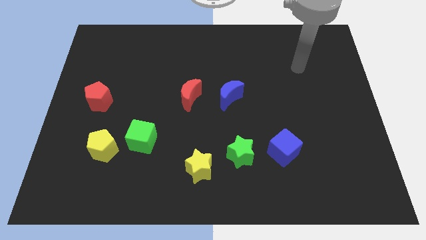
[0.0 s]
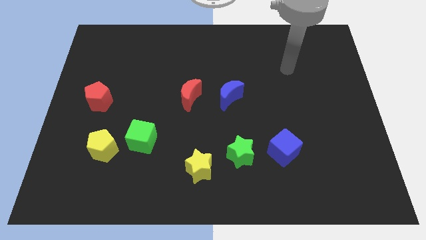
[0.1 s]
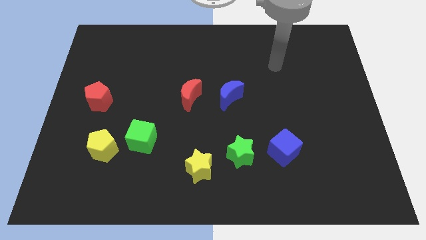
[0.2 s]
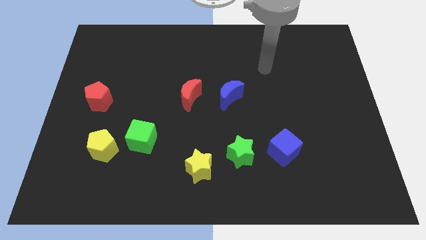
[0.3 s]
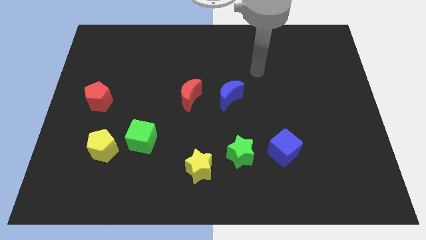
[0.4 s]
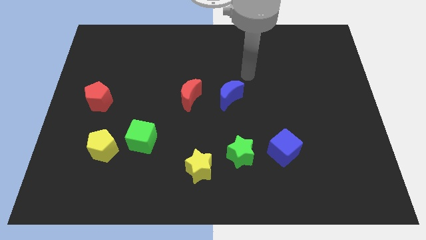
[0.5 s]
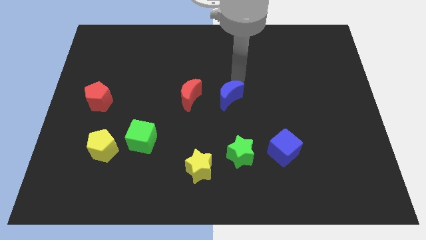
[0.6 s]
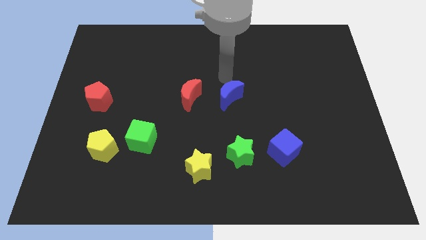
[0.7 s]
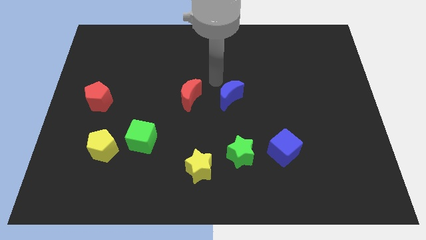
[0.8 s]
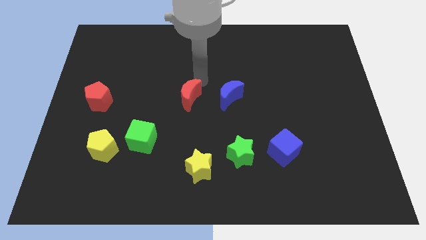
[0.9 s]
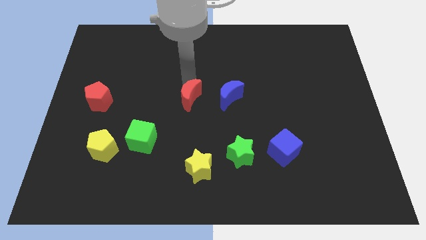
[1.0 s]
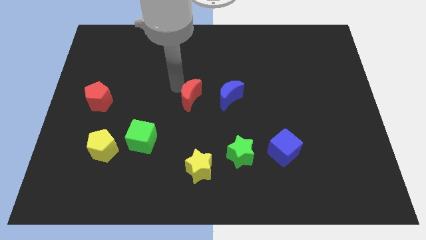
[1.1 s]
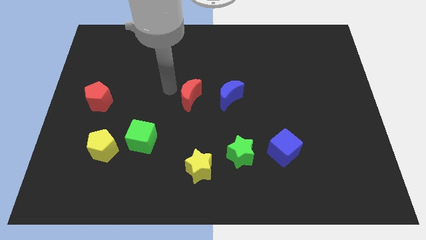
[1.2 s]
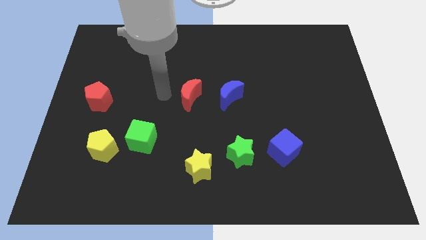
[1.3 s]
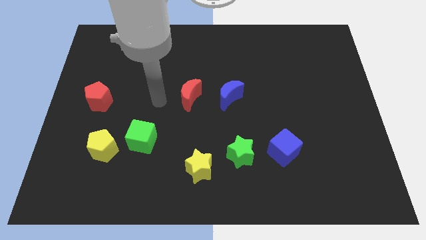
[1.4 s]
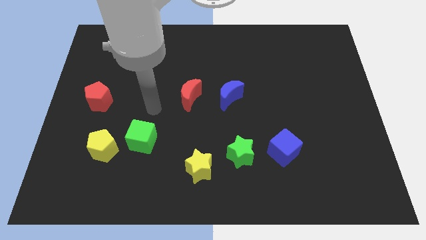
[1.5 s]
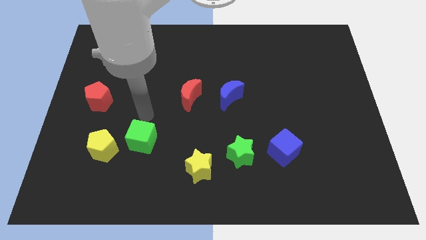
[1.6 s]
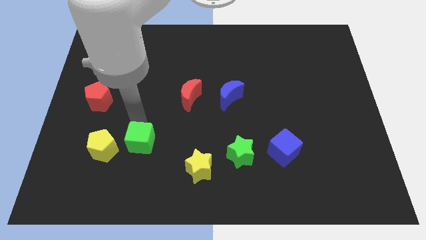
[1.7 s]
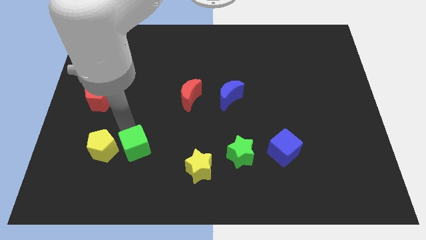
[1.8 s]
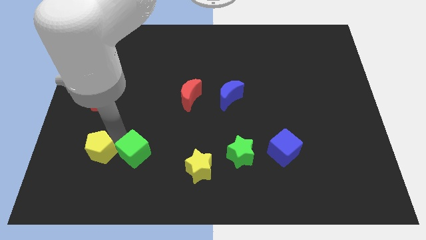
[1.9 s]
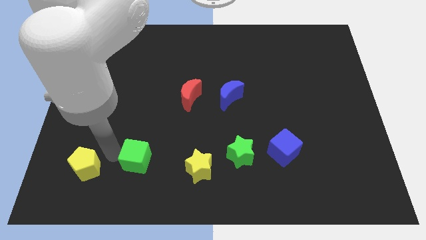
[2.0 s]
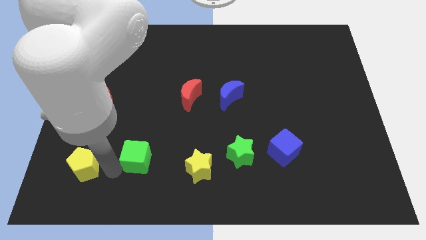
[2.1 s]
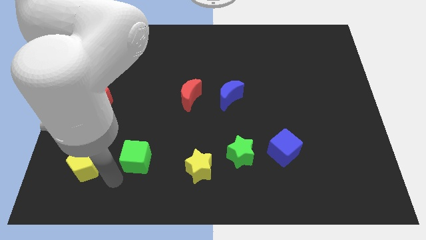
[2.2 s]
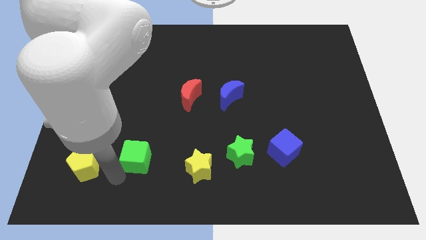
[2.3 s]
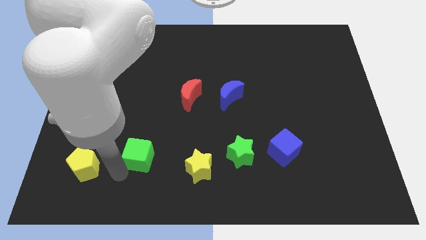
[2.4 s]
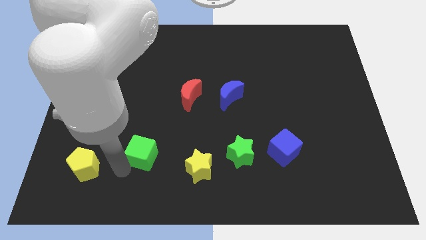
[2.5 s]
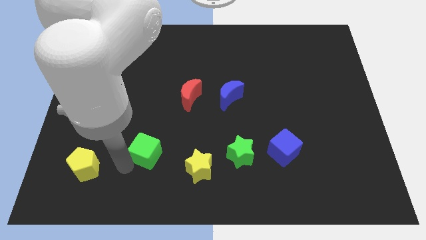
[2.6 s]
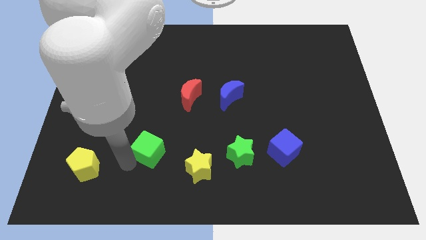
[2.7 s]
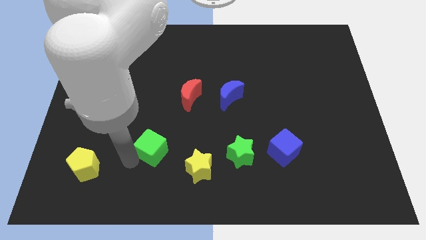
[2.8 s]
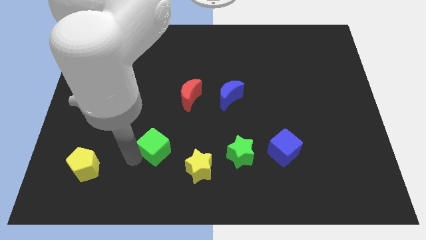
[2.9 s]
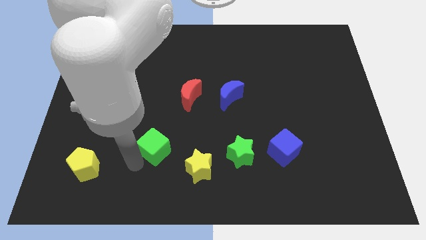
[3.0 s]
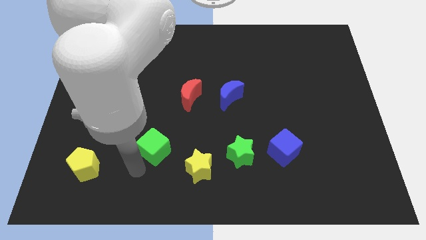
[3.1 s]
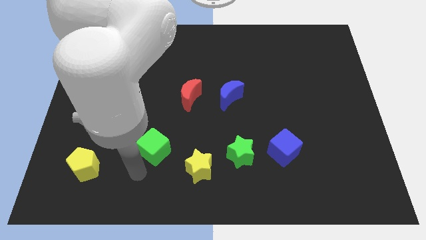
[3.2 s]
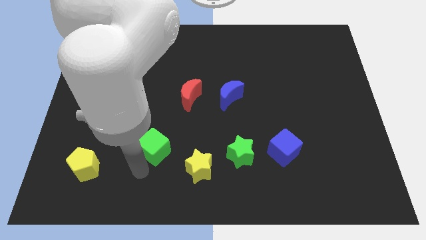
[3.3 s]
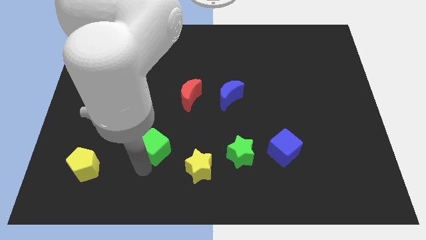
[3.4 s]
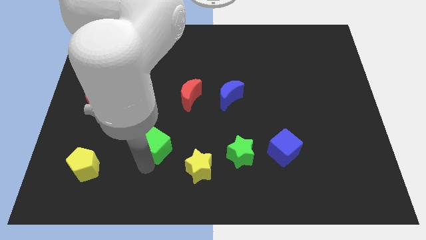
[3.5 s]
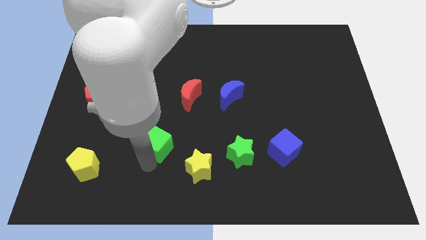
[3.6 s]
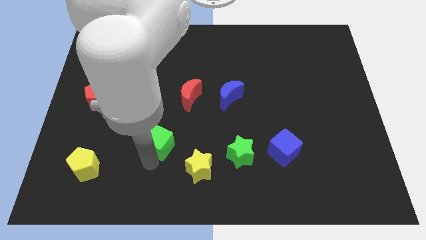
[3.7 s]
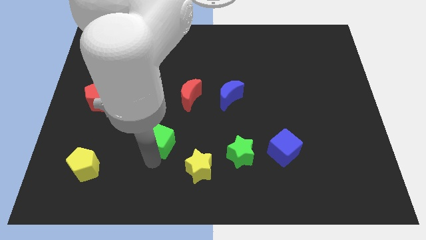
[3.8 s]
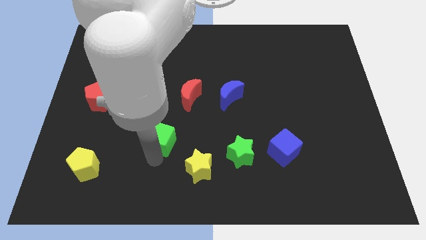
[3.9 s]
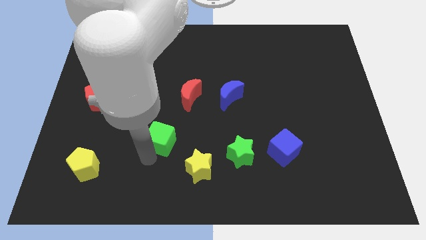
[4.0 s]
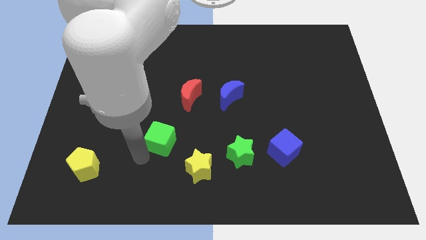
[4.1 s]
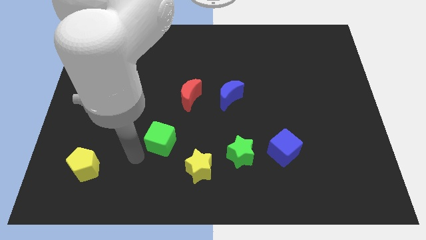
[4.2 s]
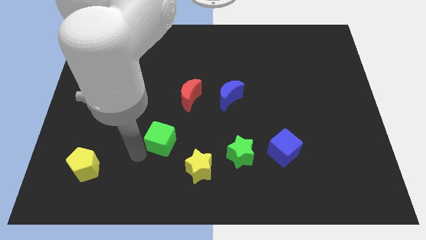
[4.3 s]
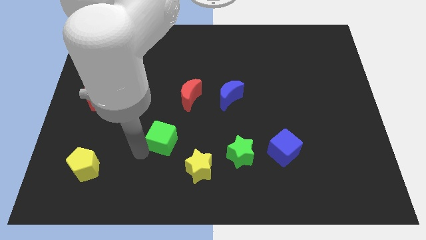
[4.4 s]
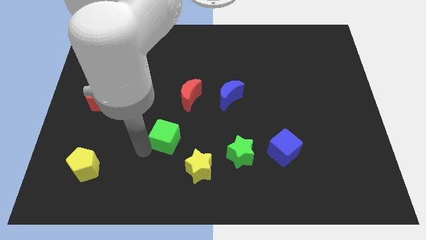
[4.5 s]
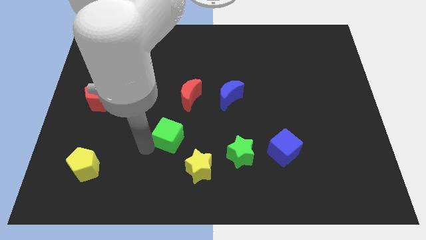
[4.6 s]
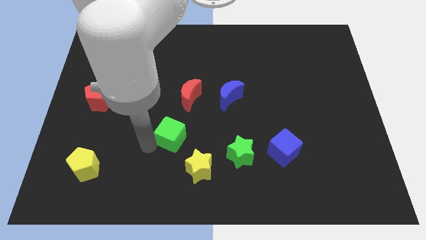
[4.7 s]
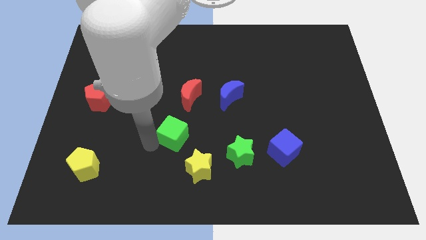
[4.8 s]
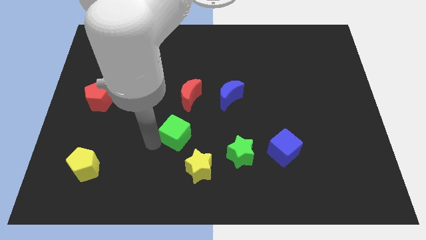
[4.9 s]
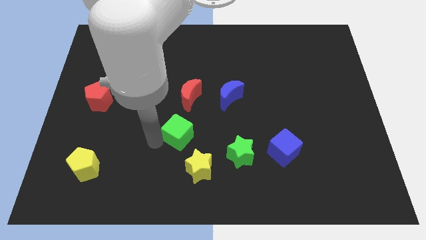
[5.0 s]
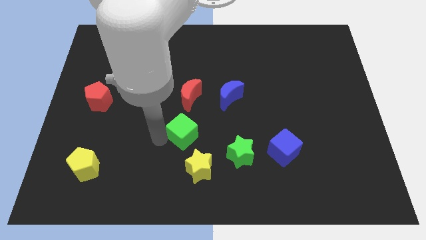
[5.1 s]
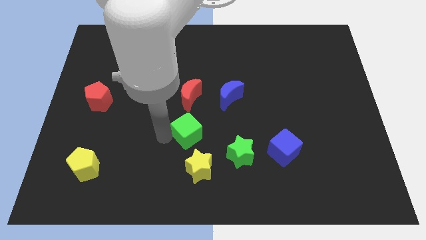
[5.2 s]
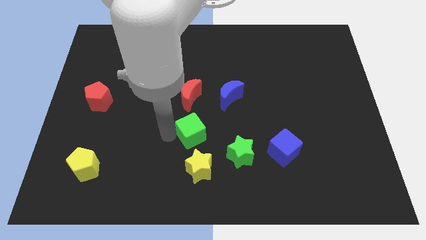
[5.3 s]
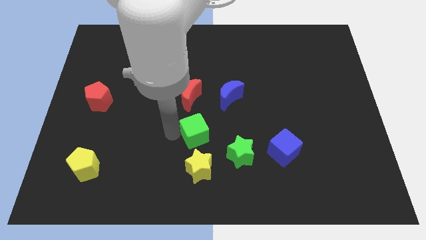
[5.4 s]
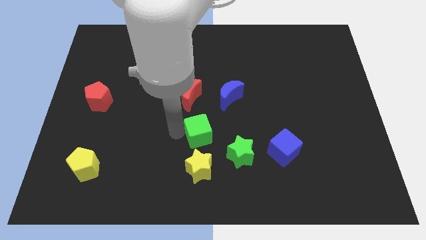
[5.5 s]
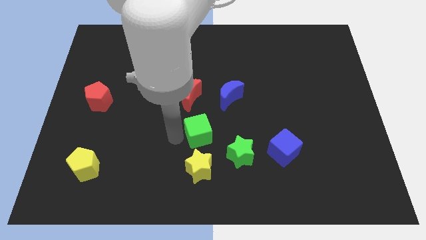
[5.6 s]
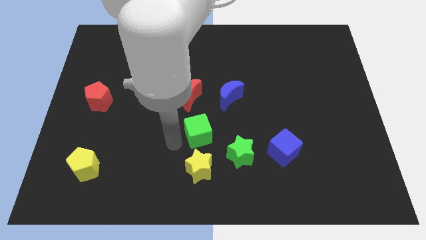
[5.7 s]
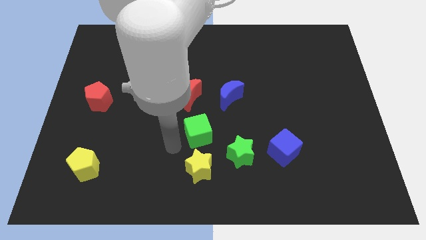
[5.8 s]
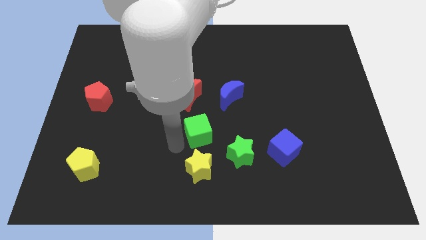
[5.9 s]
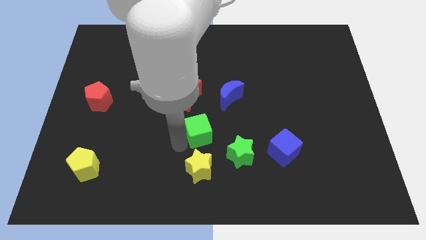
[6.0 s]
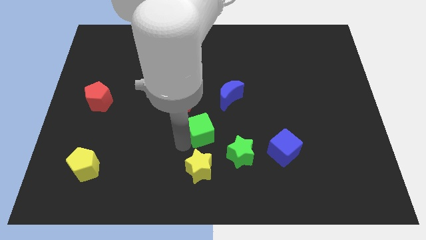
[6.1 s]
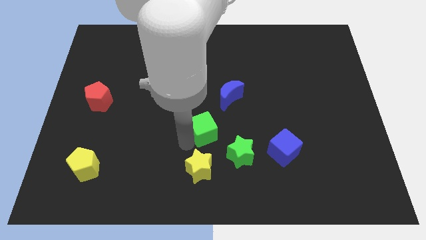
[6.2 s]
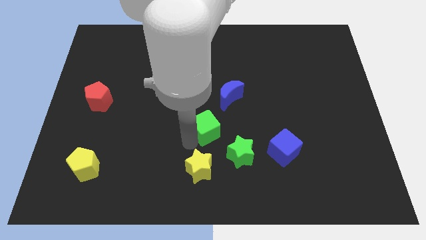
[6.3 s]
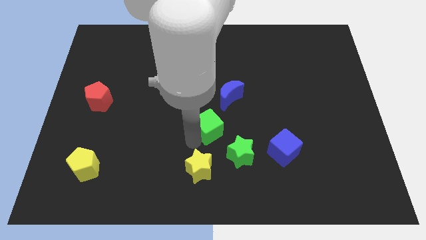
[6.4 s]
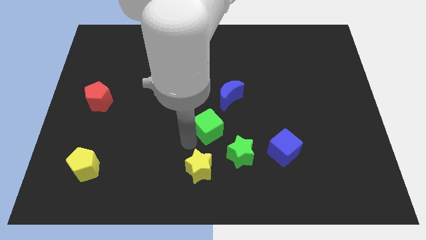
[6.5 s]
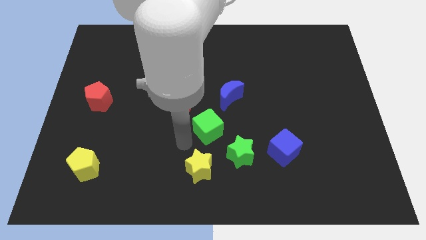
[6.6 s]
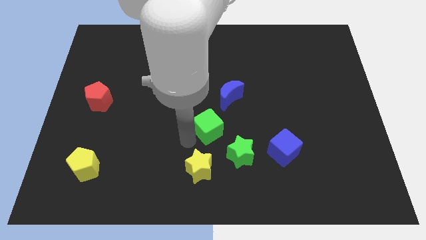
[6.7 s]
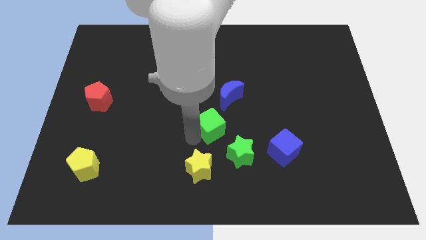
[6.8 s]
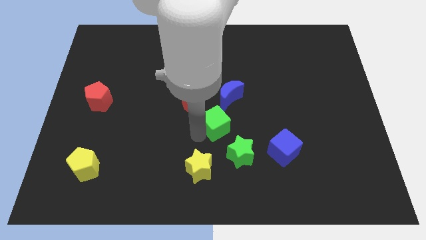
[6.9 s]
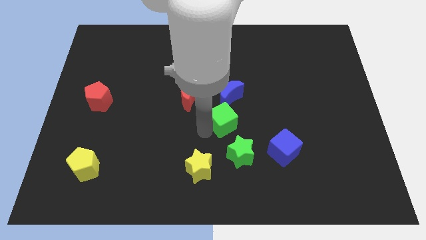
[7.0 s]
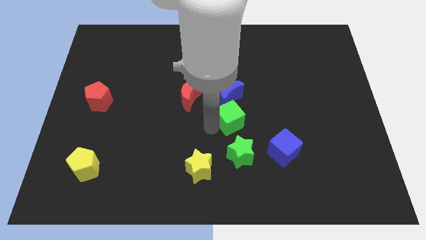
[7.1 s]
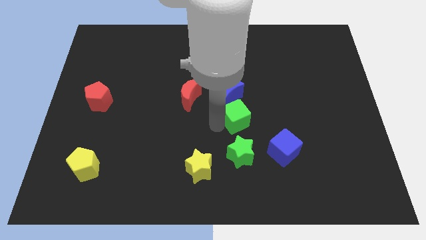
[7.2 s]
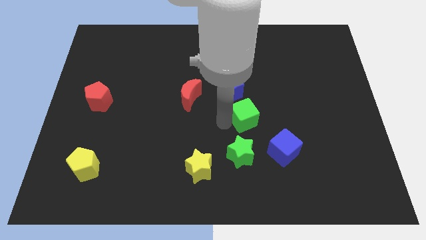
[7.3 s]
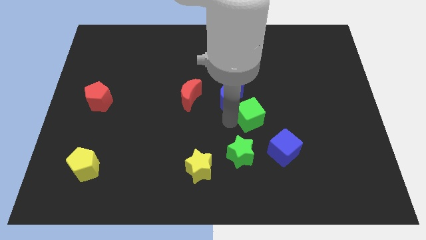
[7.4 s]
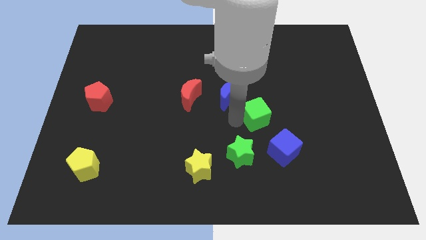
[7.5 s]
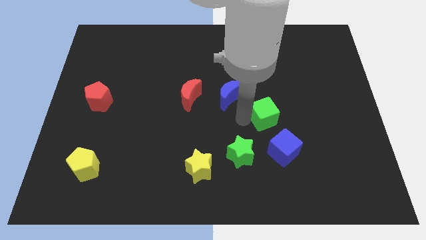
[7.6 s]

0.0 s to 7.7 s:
put the green cube to the top side of the blue cube
